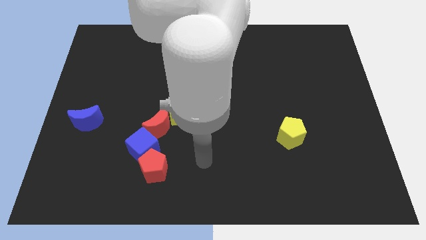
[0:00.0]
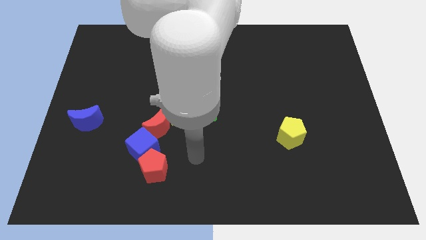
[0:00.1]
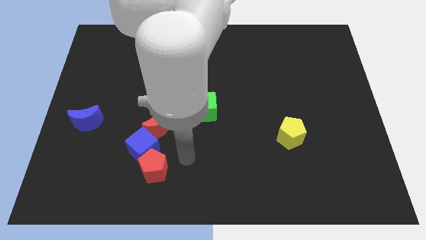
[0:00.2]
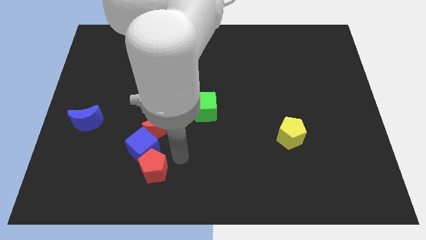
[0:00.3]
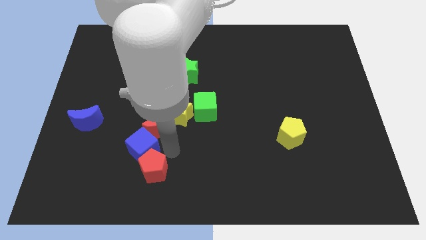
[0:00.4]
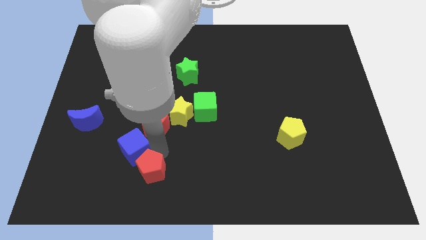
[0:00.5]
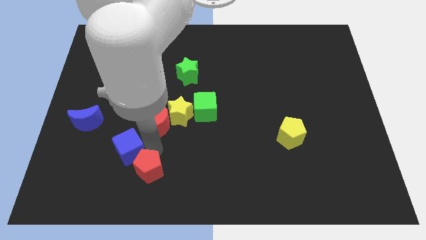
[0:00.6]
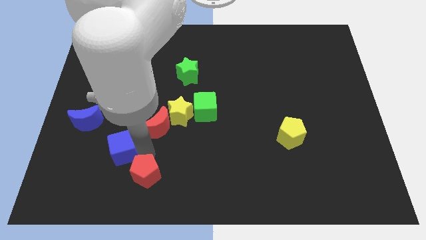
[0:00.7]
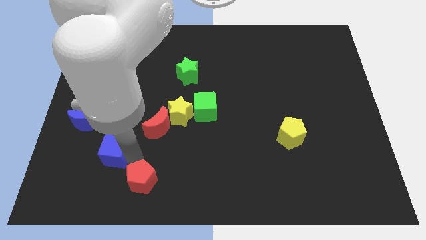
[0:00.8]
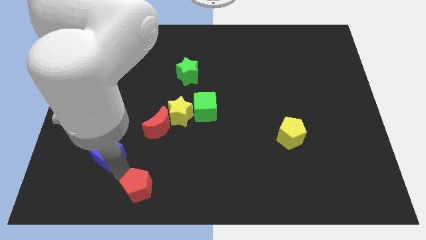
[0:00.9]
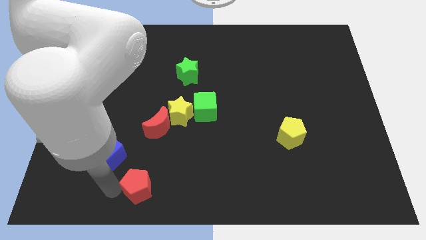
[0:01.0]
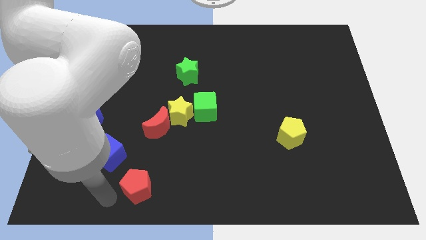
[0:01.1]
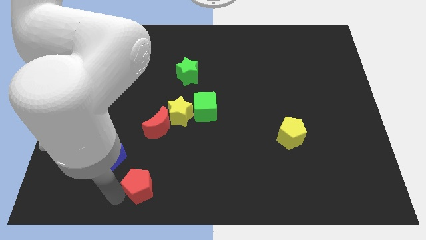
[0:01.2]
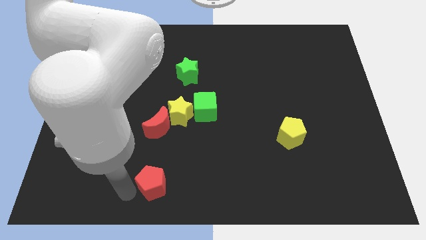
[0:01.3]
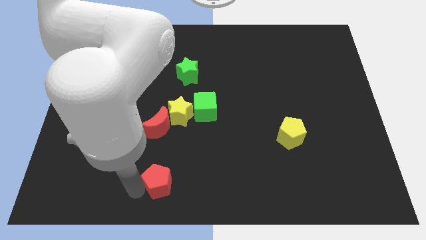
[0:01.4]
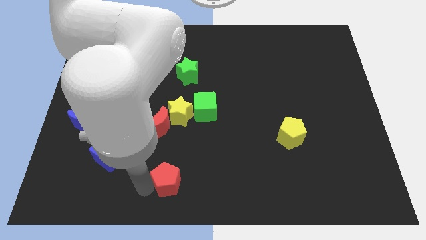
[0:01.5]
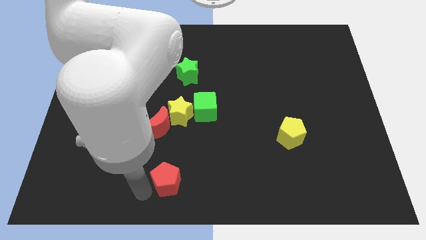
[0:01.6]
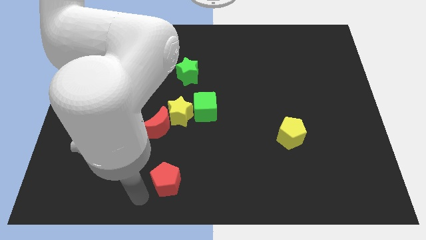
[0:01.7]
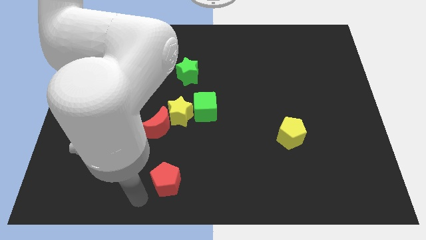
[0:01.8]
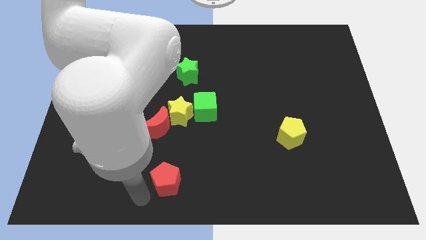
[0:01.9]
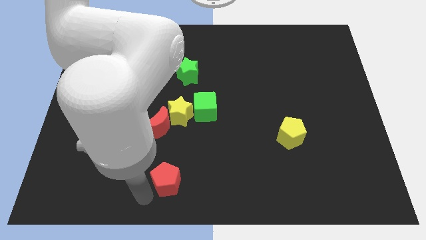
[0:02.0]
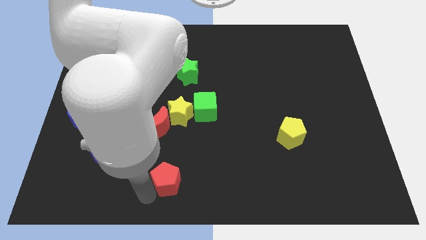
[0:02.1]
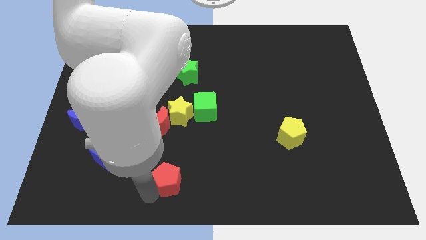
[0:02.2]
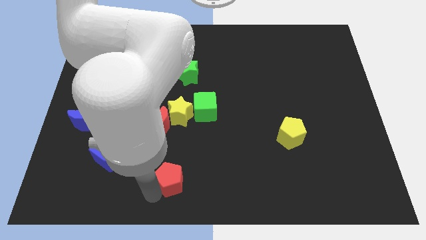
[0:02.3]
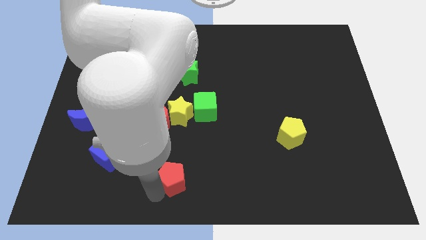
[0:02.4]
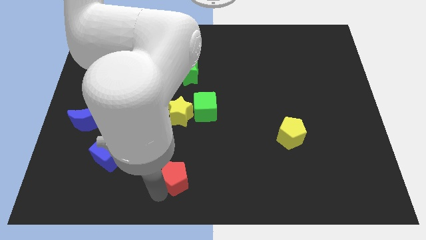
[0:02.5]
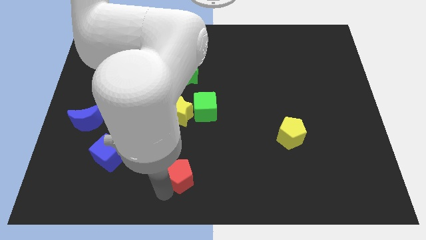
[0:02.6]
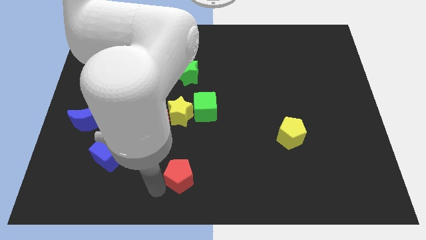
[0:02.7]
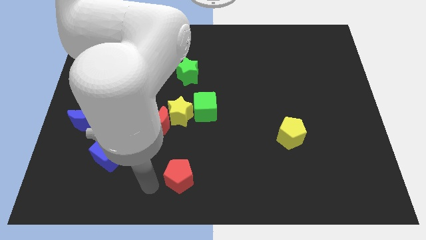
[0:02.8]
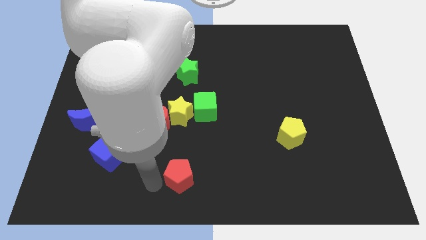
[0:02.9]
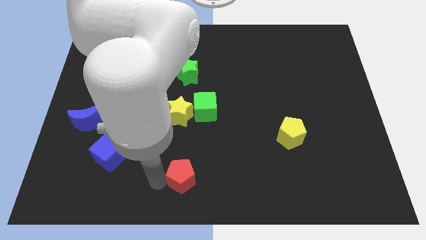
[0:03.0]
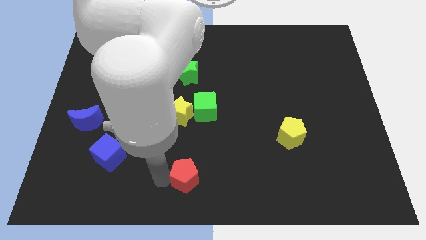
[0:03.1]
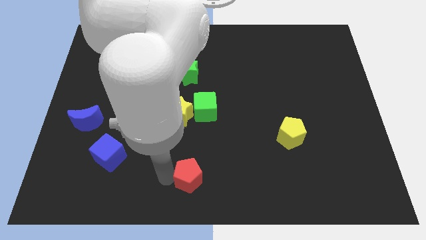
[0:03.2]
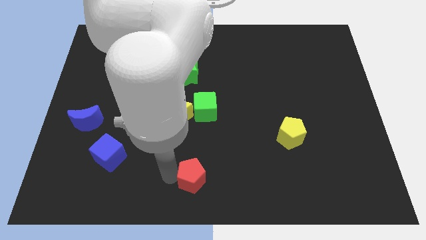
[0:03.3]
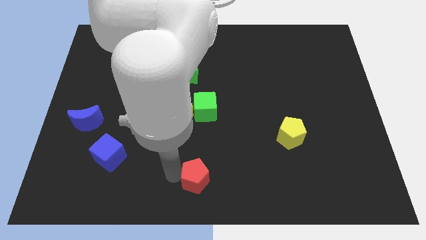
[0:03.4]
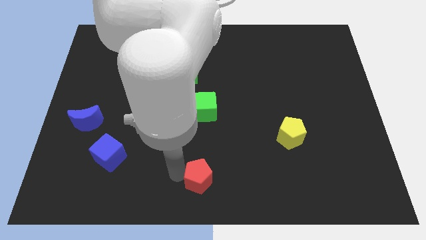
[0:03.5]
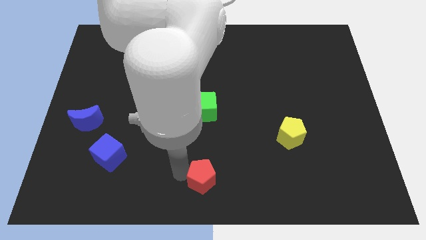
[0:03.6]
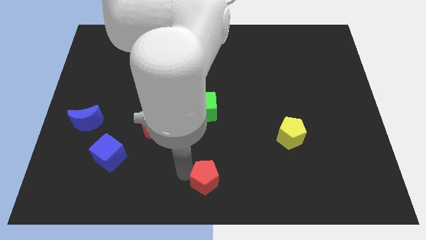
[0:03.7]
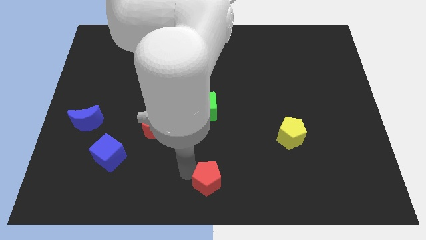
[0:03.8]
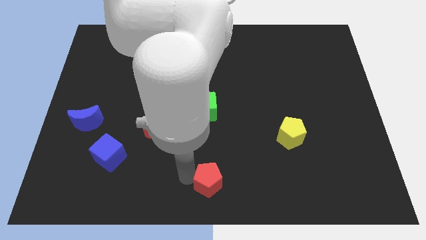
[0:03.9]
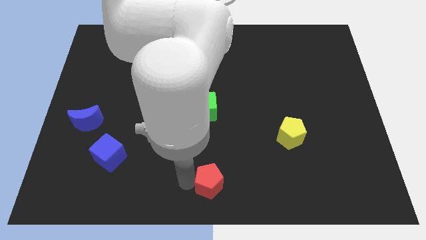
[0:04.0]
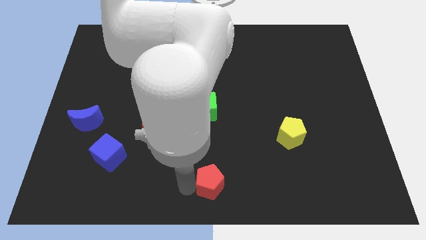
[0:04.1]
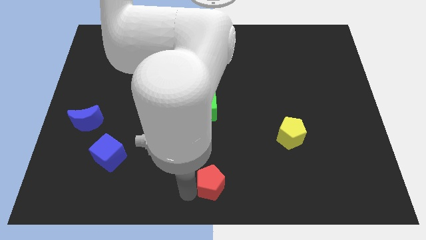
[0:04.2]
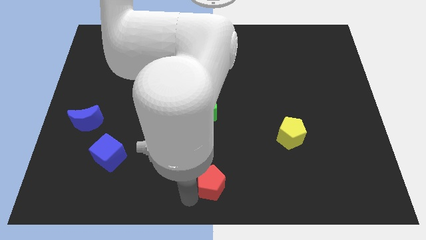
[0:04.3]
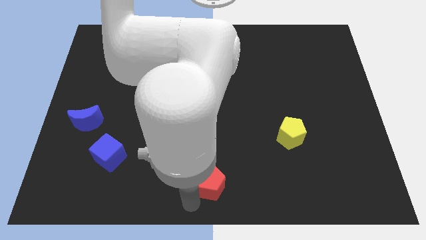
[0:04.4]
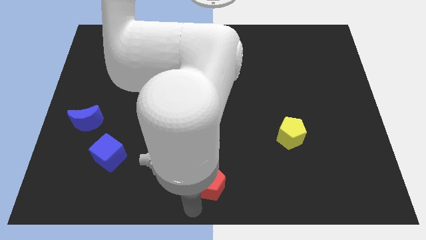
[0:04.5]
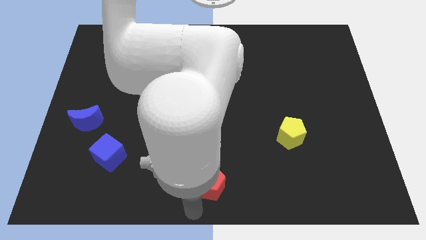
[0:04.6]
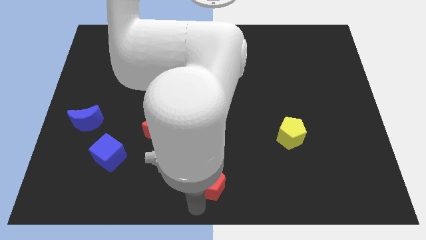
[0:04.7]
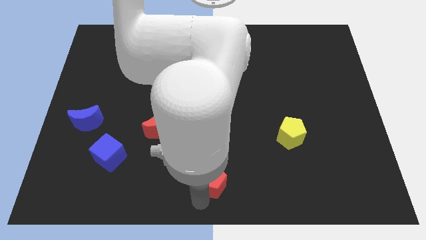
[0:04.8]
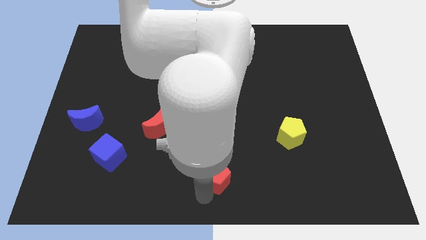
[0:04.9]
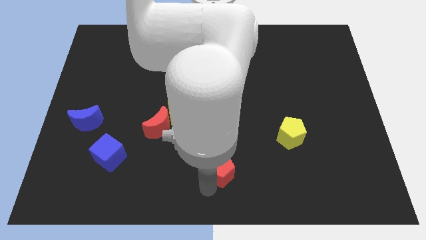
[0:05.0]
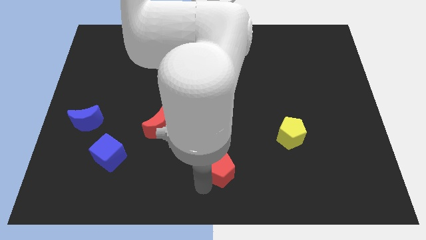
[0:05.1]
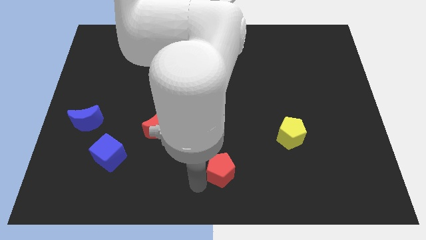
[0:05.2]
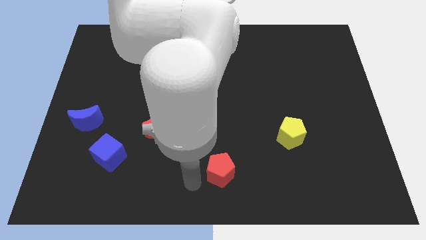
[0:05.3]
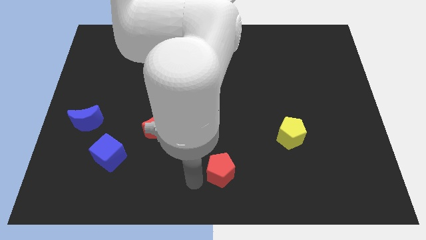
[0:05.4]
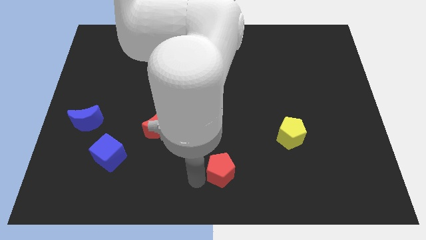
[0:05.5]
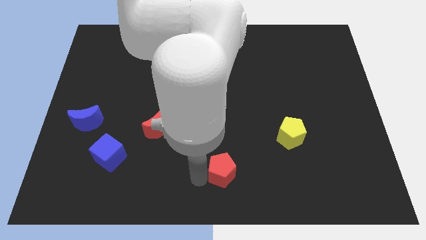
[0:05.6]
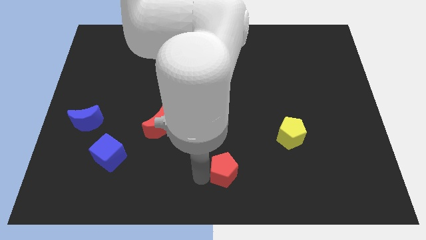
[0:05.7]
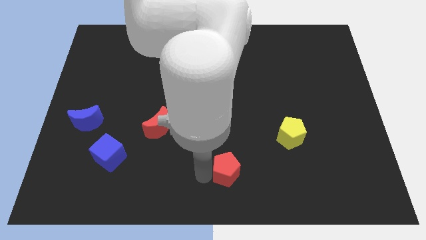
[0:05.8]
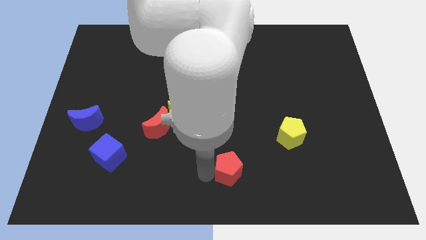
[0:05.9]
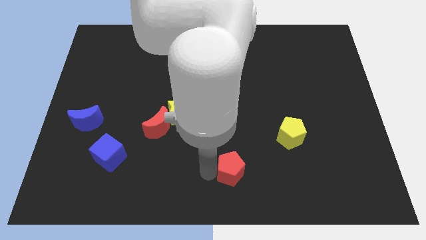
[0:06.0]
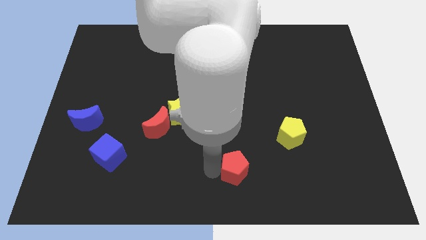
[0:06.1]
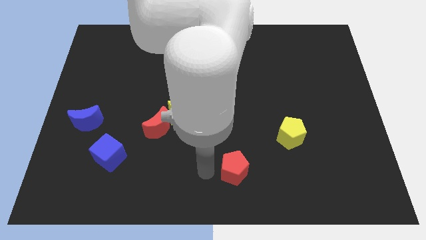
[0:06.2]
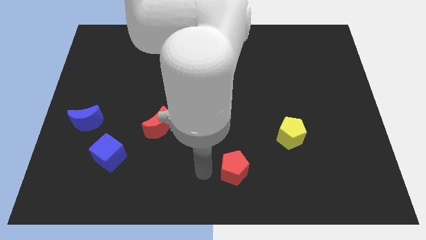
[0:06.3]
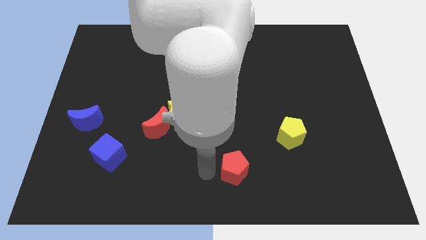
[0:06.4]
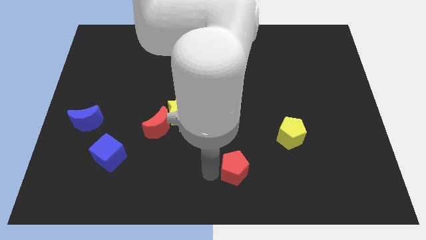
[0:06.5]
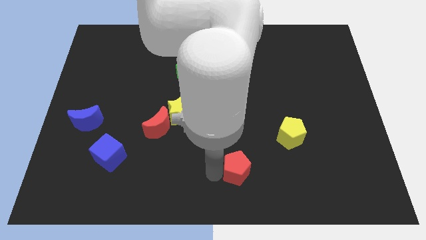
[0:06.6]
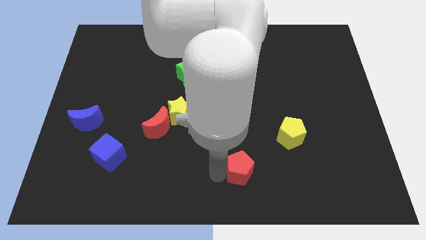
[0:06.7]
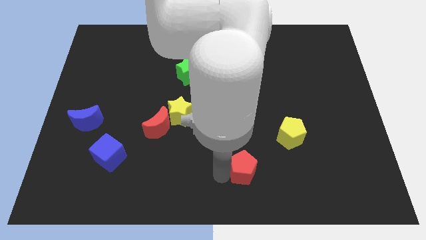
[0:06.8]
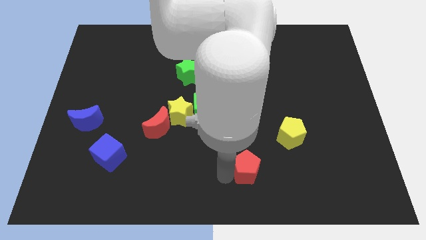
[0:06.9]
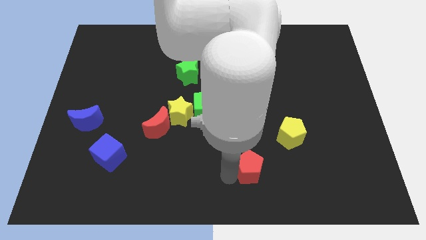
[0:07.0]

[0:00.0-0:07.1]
slide the red pentagon to the right

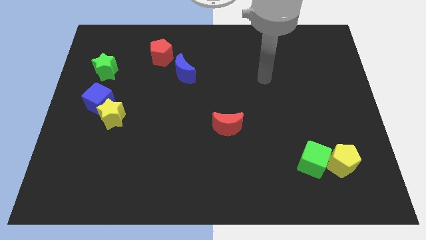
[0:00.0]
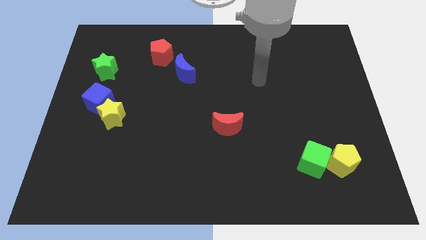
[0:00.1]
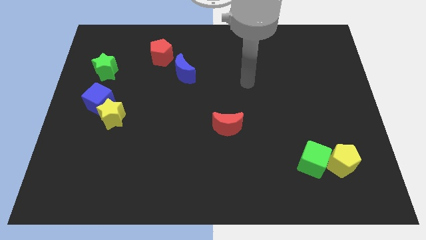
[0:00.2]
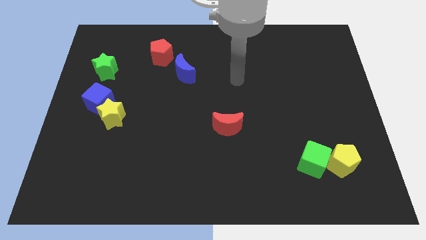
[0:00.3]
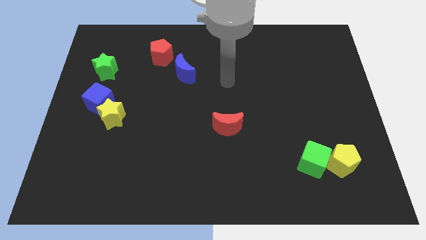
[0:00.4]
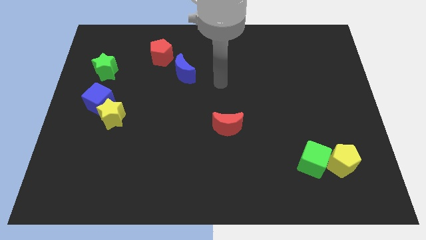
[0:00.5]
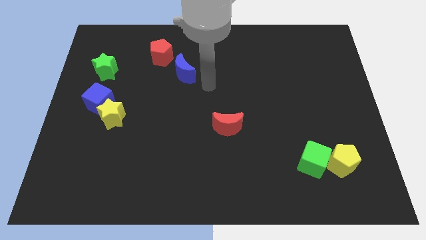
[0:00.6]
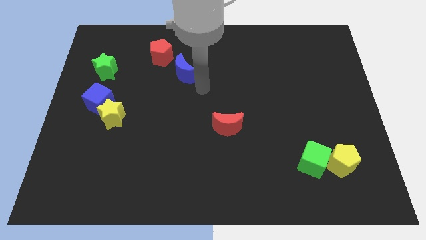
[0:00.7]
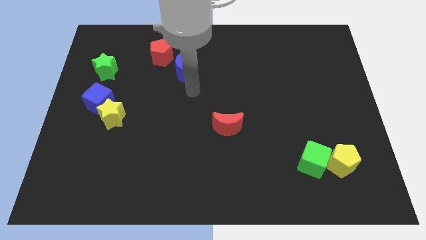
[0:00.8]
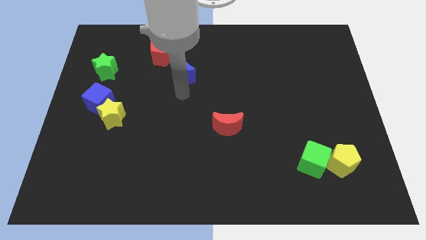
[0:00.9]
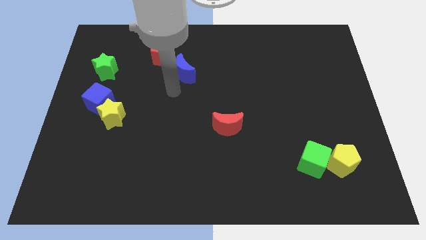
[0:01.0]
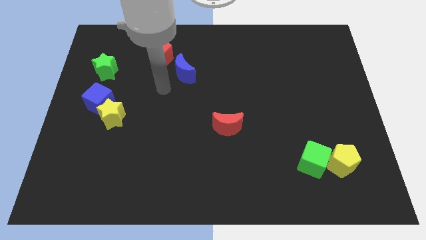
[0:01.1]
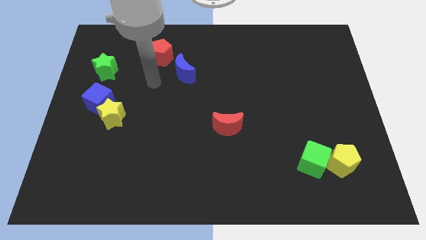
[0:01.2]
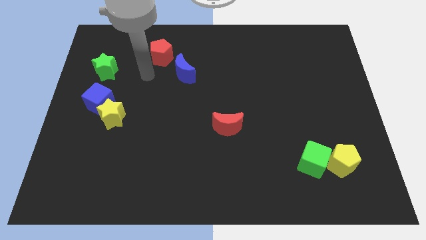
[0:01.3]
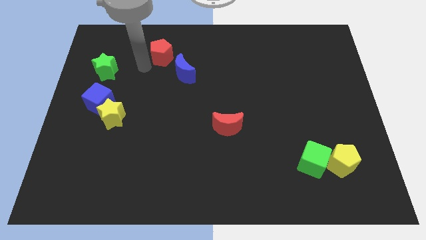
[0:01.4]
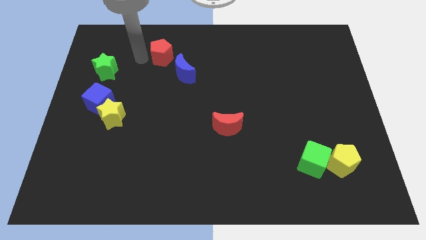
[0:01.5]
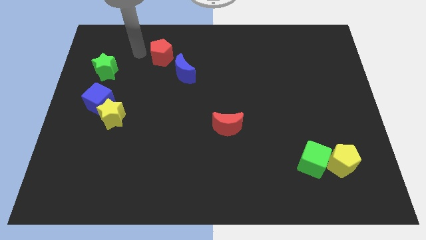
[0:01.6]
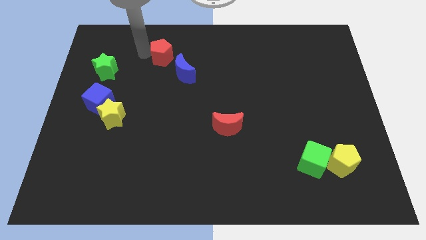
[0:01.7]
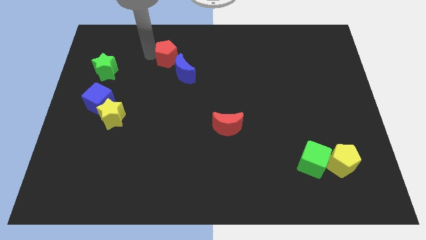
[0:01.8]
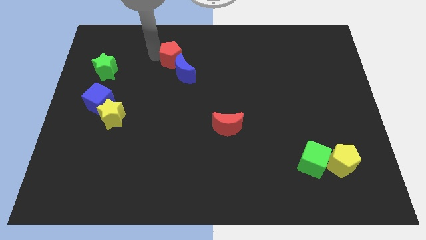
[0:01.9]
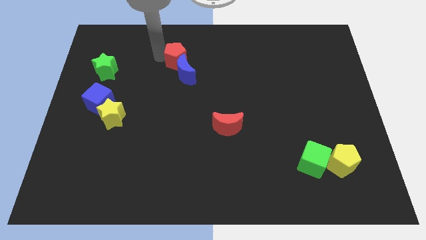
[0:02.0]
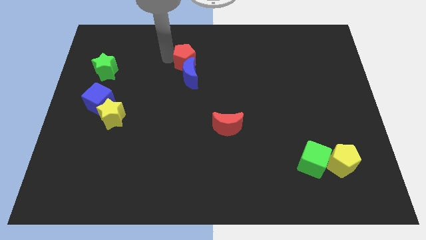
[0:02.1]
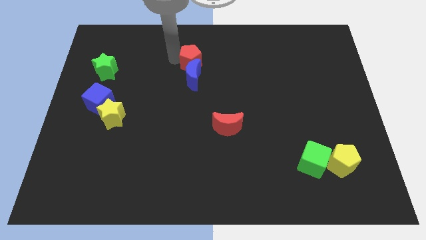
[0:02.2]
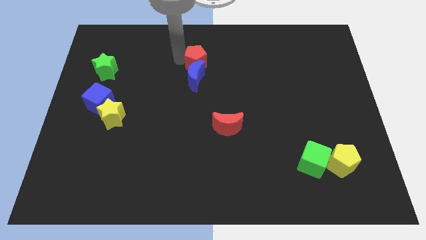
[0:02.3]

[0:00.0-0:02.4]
move the red pentagon down and then to the right a little bit
